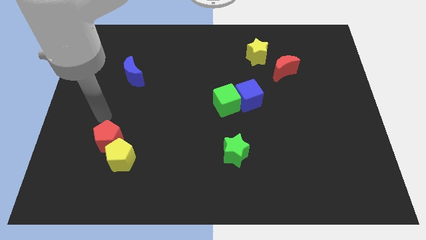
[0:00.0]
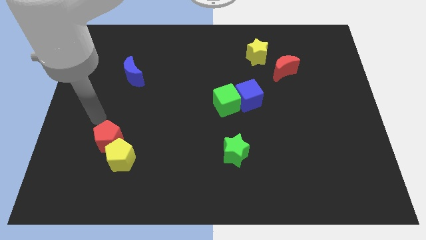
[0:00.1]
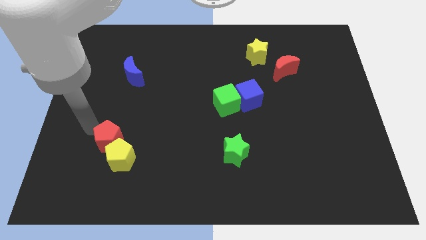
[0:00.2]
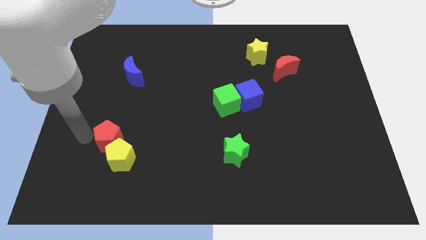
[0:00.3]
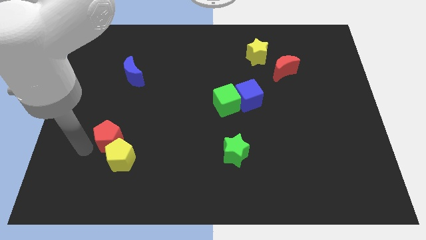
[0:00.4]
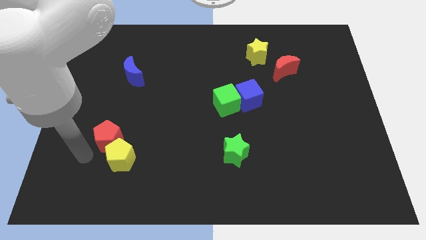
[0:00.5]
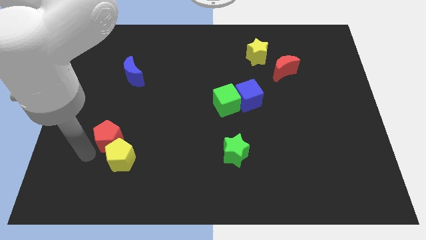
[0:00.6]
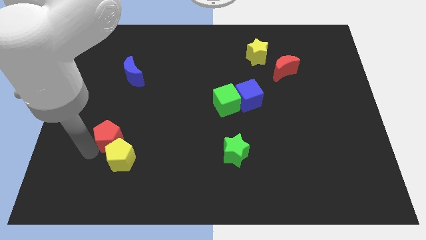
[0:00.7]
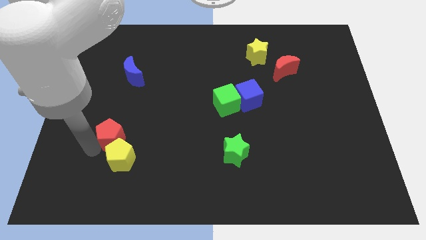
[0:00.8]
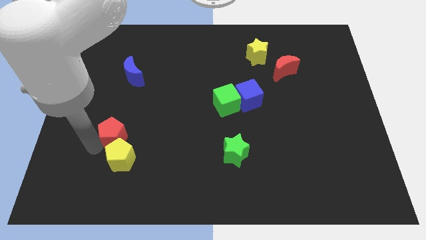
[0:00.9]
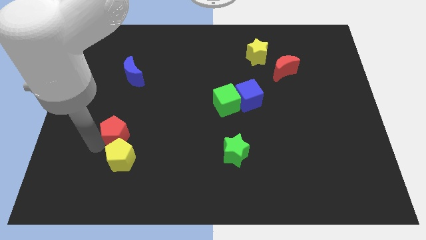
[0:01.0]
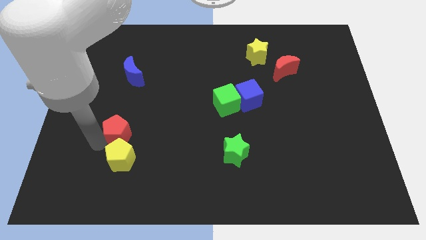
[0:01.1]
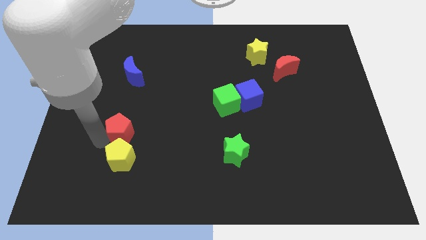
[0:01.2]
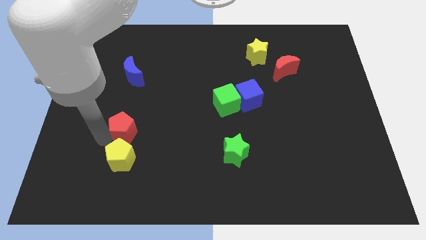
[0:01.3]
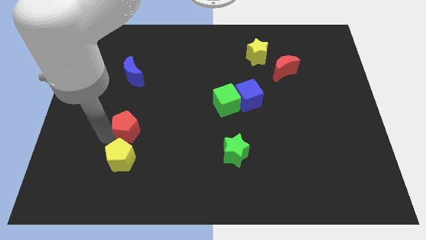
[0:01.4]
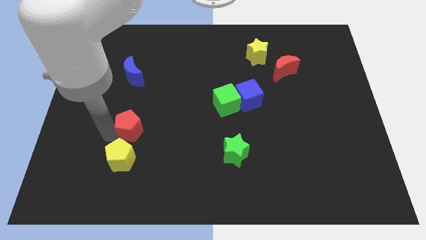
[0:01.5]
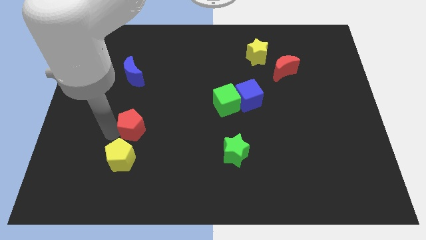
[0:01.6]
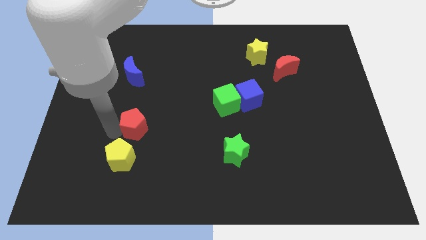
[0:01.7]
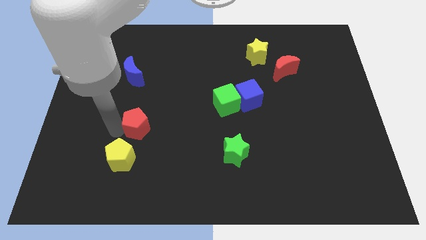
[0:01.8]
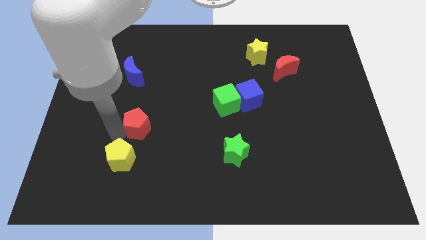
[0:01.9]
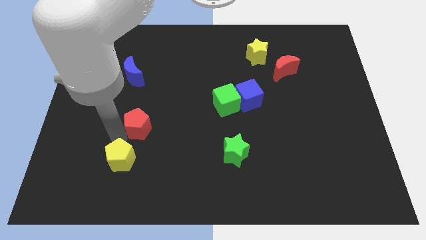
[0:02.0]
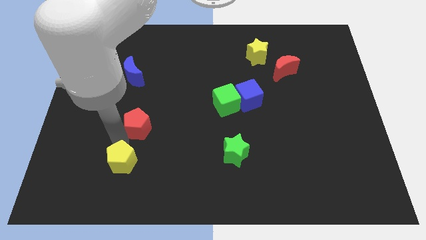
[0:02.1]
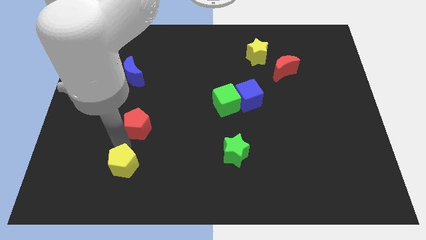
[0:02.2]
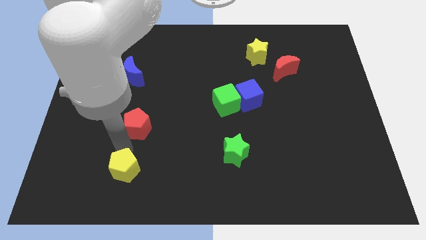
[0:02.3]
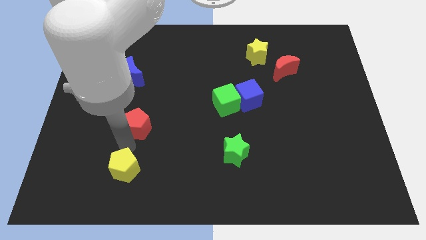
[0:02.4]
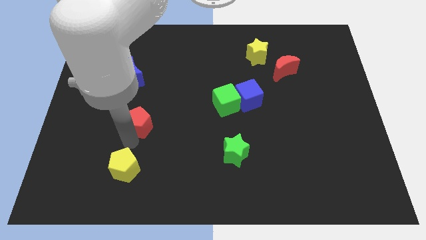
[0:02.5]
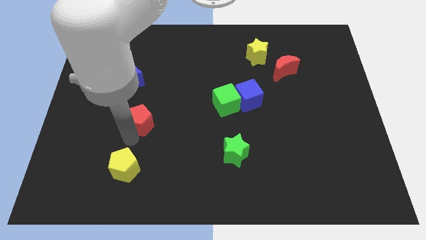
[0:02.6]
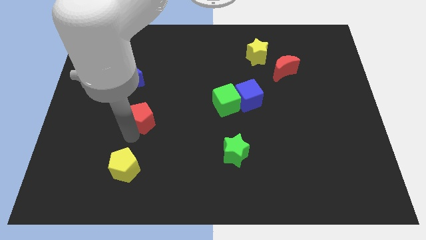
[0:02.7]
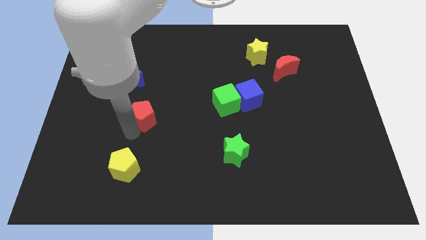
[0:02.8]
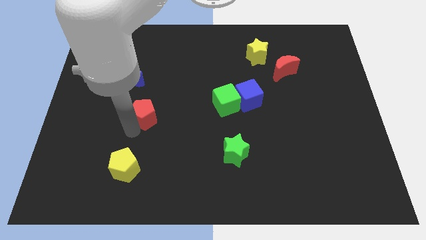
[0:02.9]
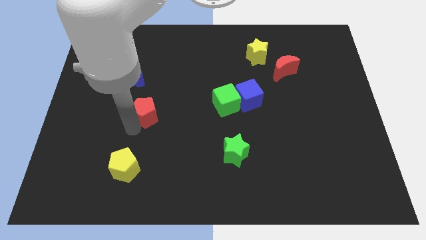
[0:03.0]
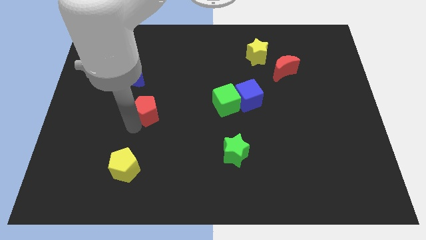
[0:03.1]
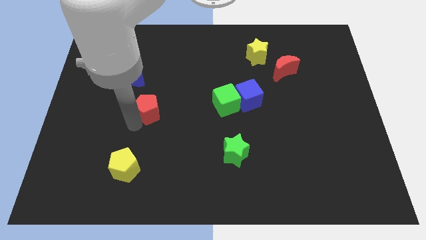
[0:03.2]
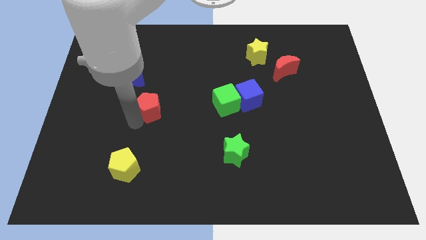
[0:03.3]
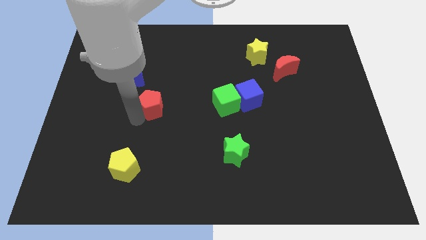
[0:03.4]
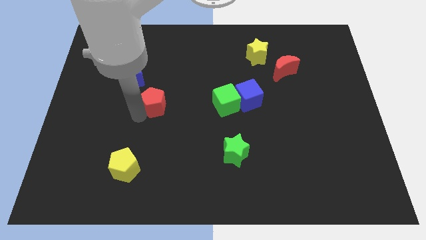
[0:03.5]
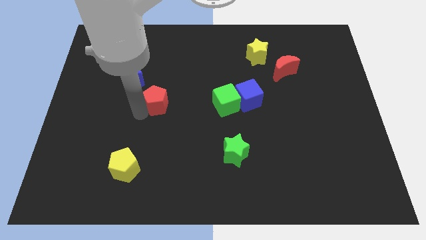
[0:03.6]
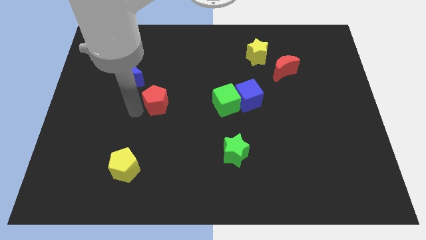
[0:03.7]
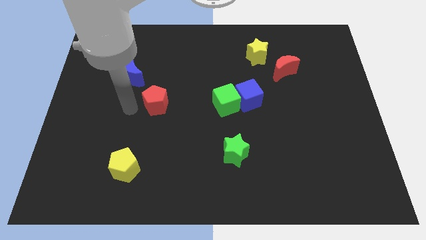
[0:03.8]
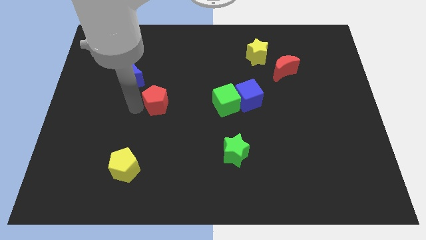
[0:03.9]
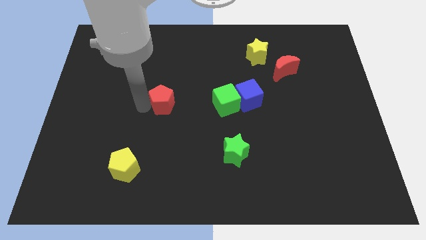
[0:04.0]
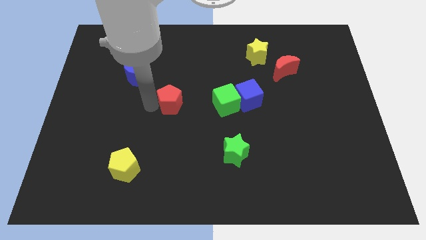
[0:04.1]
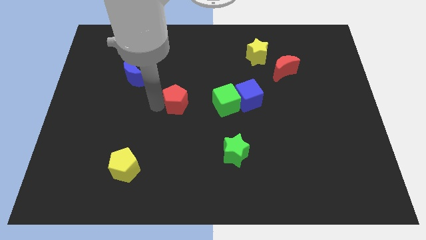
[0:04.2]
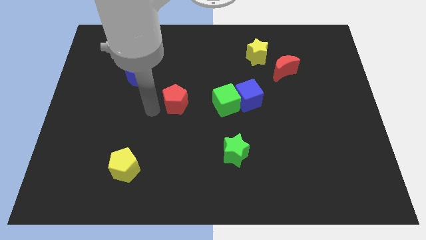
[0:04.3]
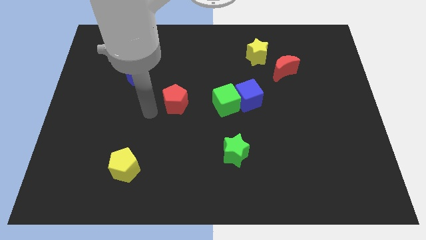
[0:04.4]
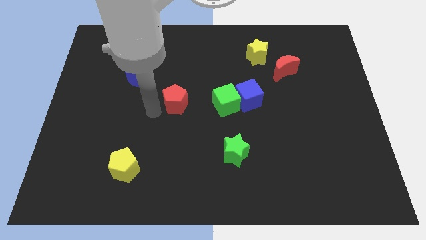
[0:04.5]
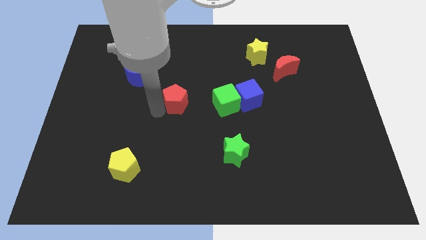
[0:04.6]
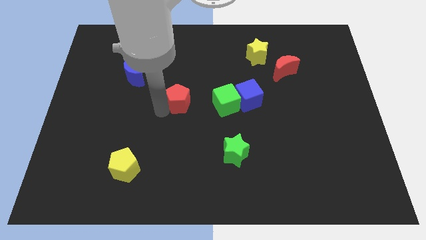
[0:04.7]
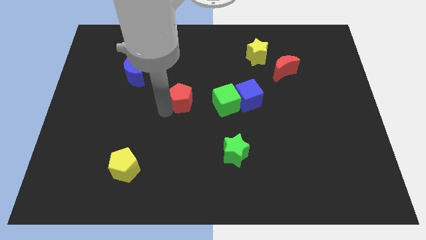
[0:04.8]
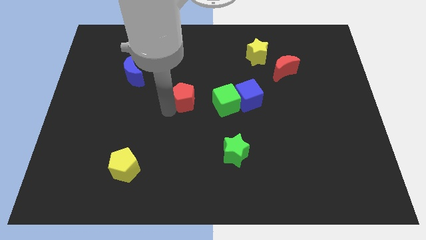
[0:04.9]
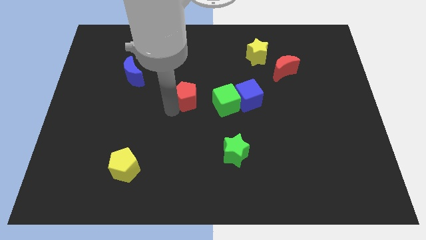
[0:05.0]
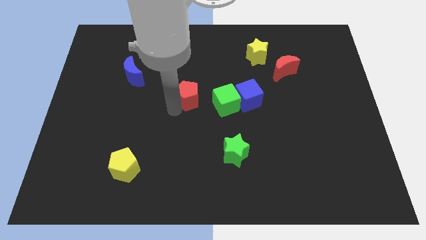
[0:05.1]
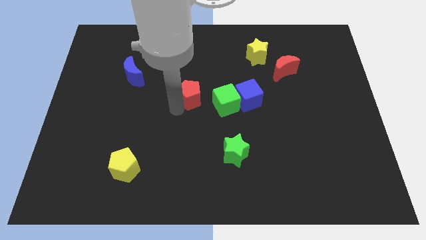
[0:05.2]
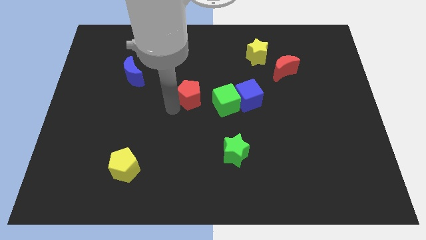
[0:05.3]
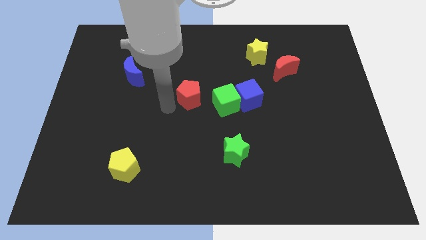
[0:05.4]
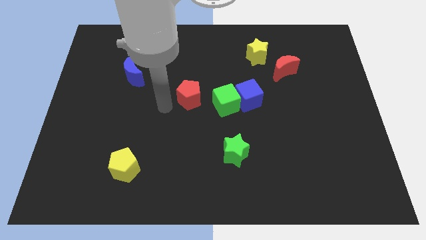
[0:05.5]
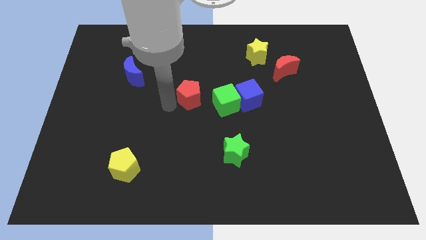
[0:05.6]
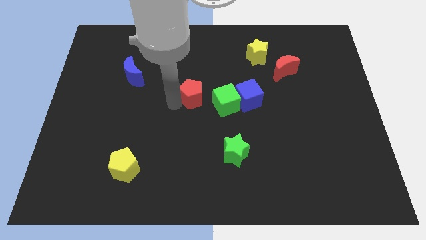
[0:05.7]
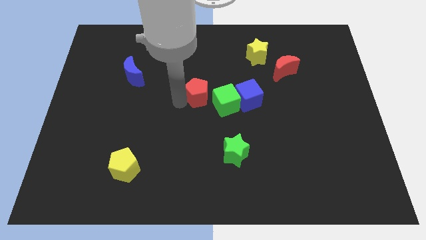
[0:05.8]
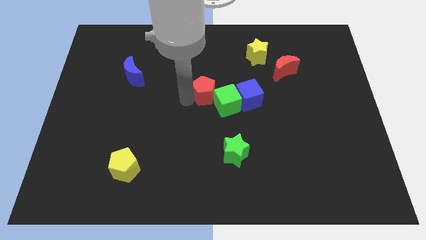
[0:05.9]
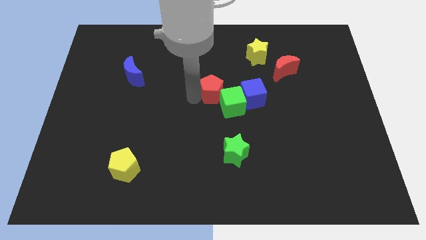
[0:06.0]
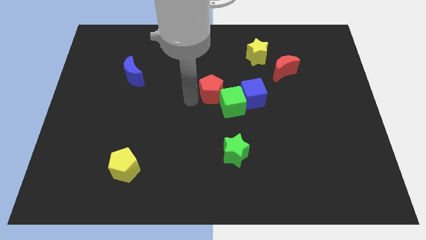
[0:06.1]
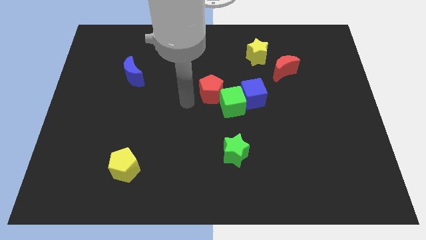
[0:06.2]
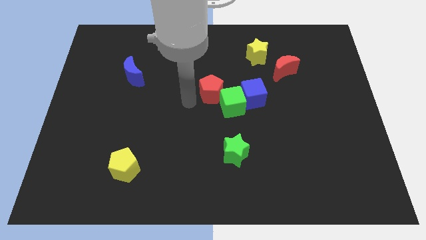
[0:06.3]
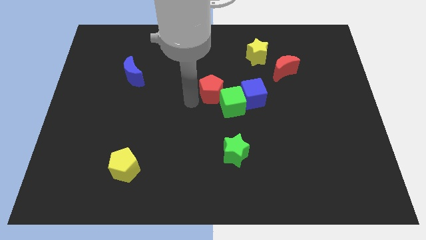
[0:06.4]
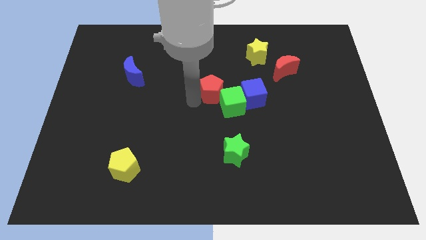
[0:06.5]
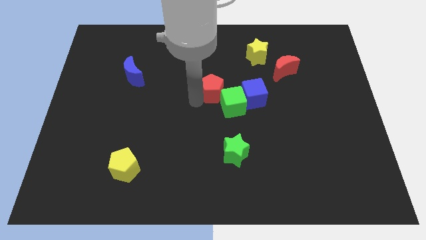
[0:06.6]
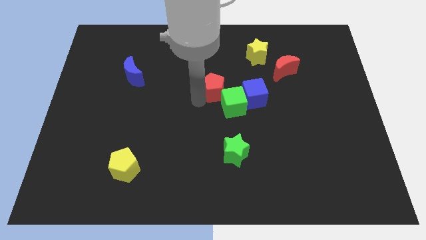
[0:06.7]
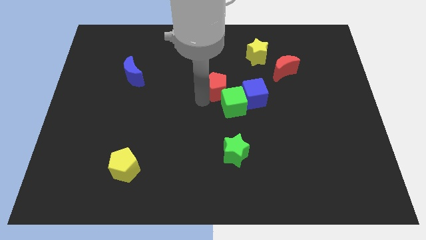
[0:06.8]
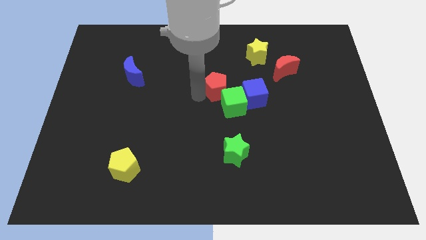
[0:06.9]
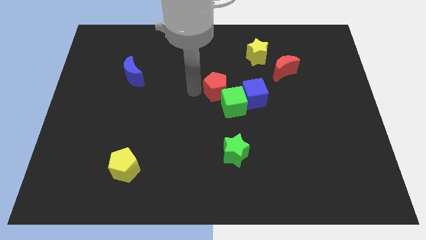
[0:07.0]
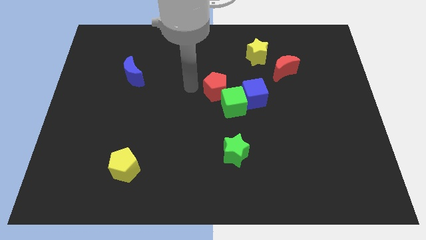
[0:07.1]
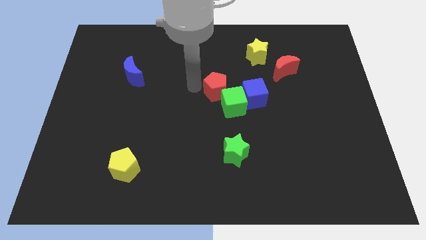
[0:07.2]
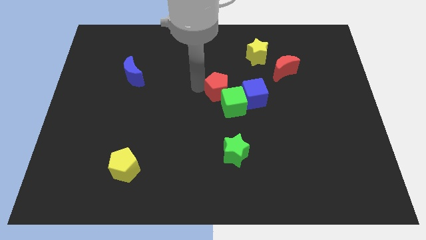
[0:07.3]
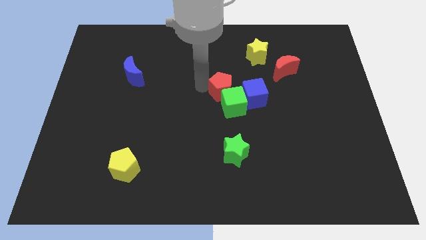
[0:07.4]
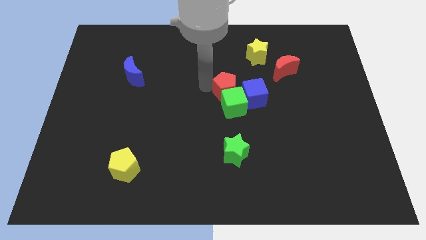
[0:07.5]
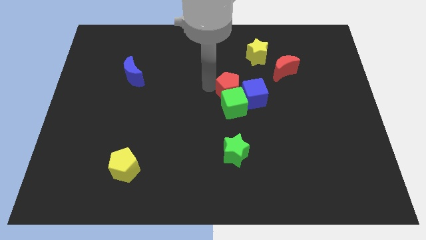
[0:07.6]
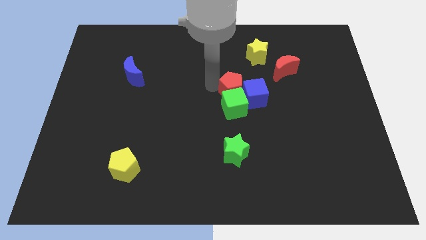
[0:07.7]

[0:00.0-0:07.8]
push the red pentagon to the blue cube
